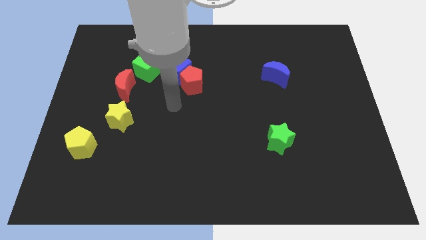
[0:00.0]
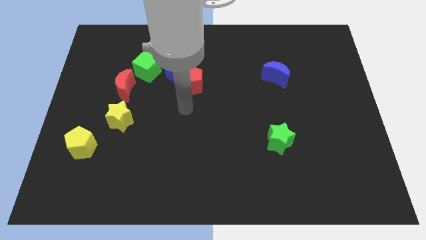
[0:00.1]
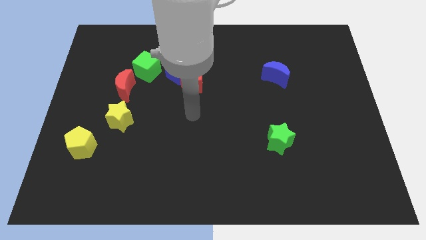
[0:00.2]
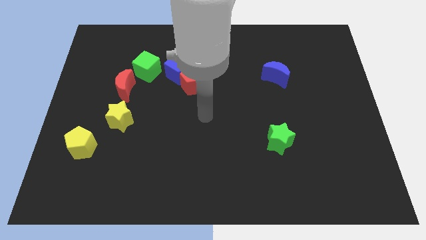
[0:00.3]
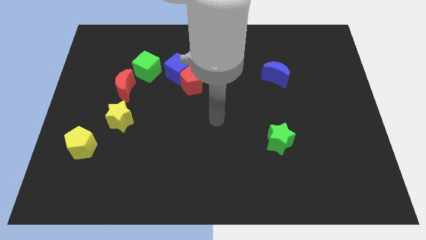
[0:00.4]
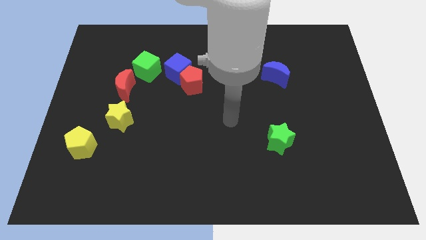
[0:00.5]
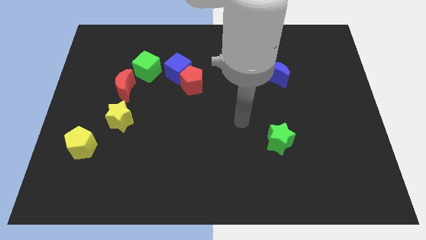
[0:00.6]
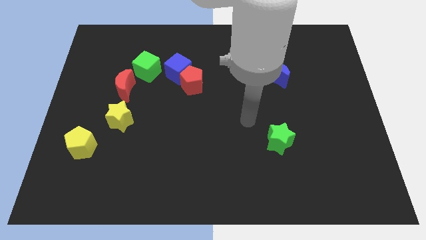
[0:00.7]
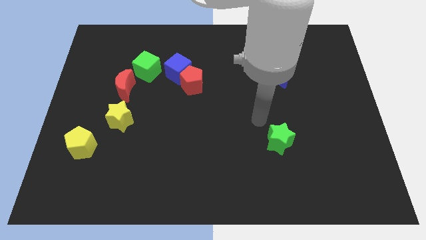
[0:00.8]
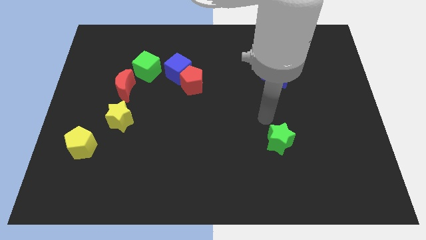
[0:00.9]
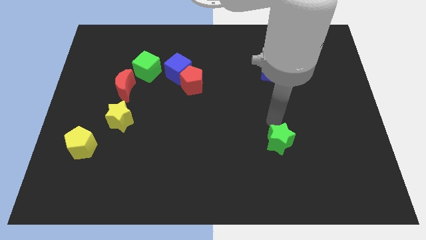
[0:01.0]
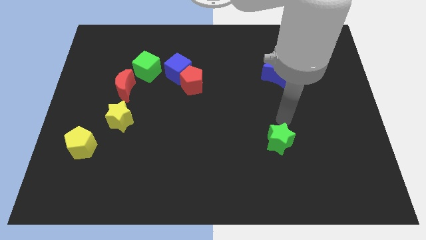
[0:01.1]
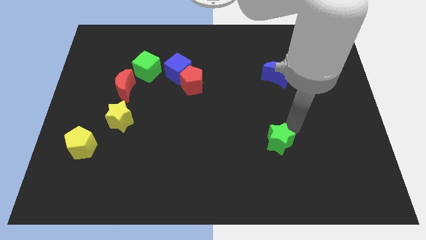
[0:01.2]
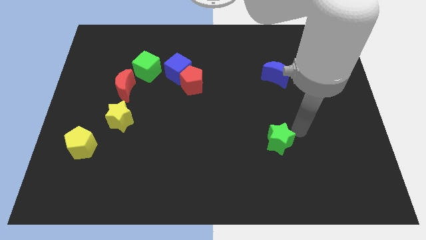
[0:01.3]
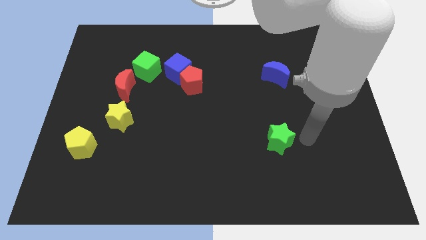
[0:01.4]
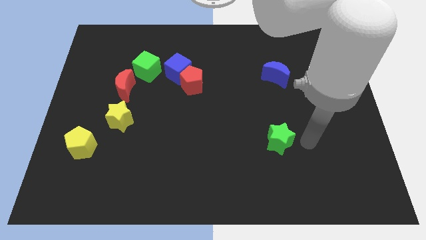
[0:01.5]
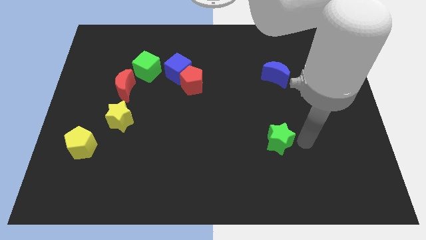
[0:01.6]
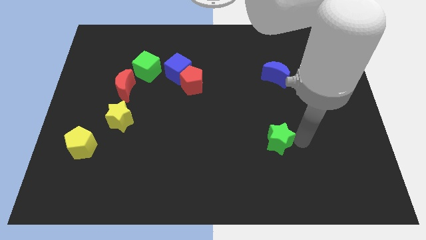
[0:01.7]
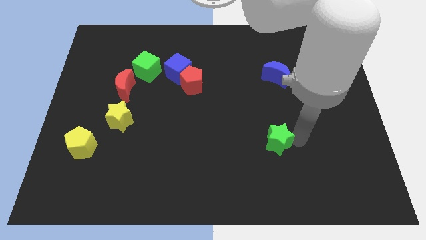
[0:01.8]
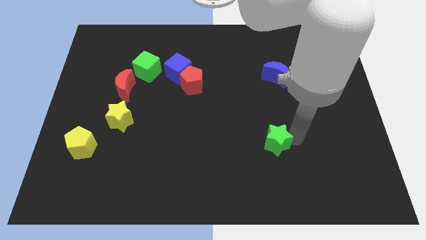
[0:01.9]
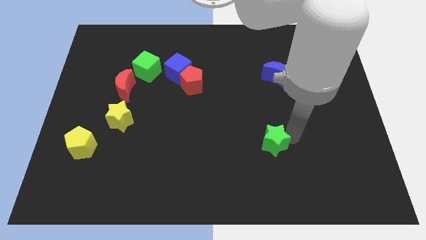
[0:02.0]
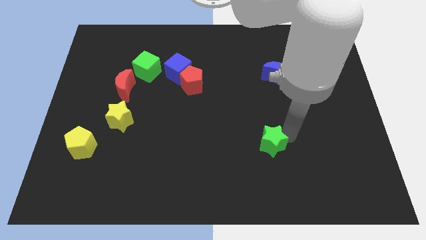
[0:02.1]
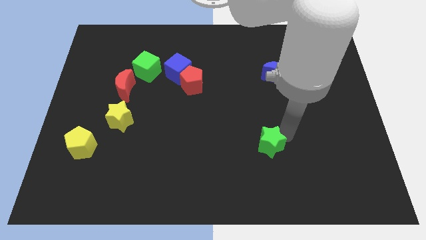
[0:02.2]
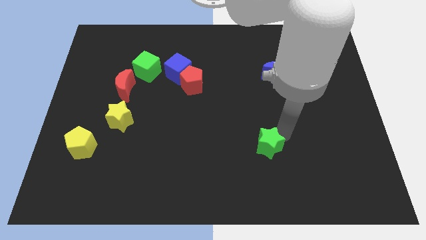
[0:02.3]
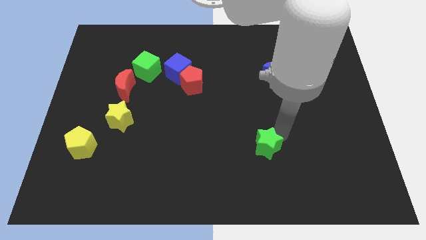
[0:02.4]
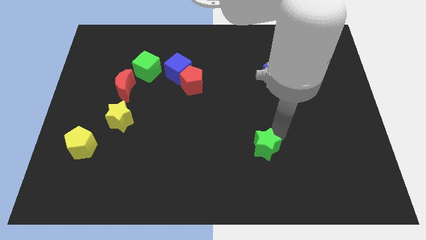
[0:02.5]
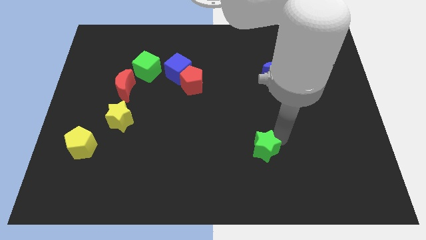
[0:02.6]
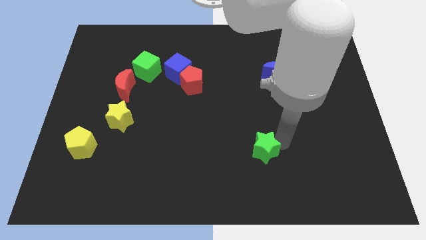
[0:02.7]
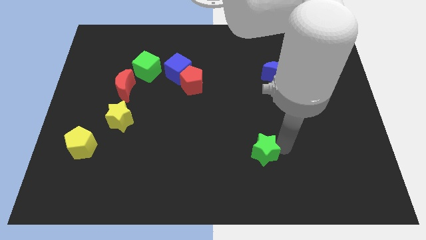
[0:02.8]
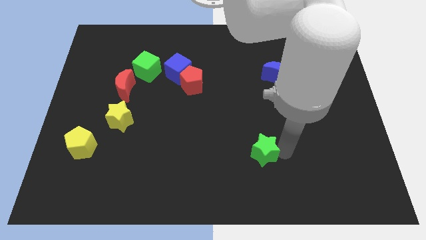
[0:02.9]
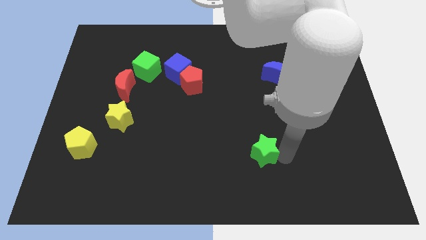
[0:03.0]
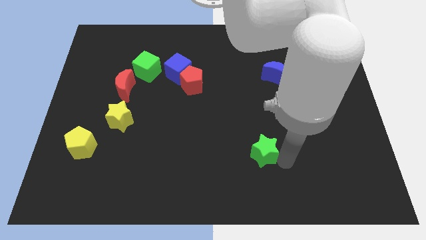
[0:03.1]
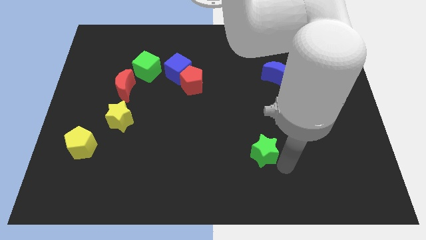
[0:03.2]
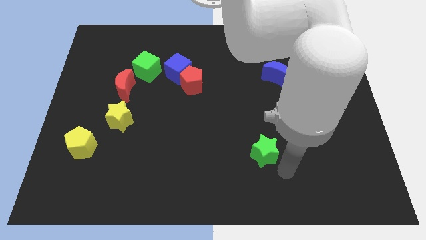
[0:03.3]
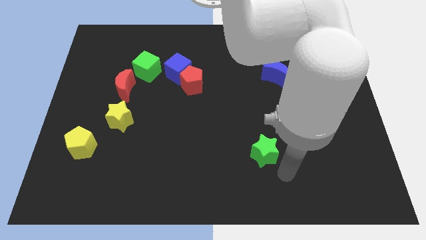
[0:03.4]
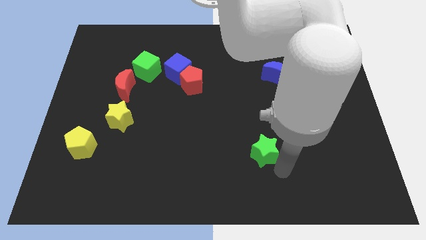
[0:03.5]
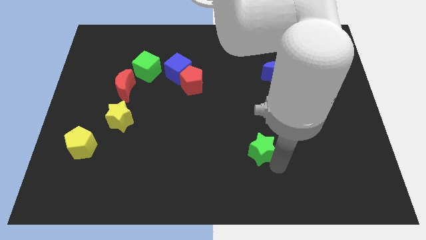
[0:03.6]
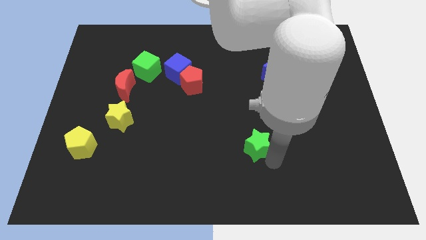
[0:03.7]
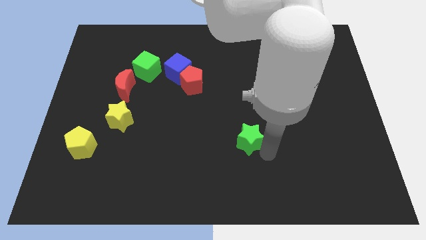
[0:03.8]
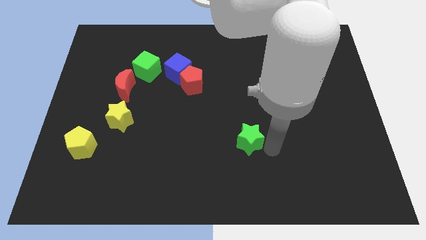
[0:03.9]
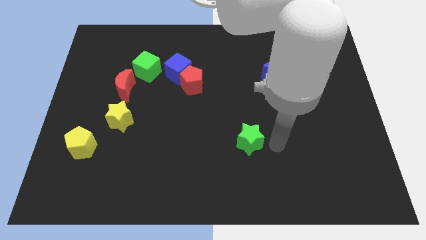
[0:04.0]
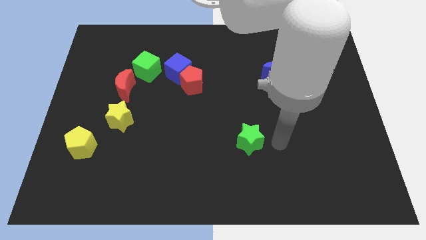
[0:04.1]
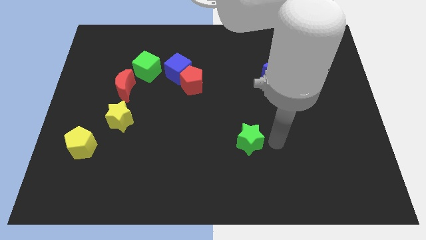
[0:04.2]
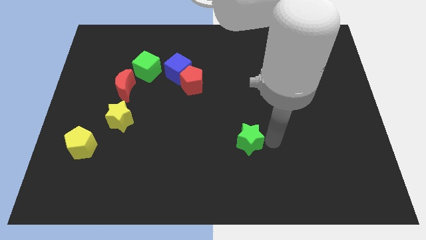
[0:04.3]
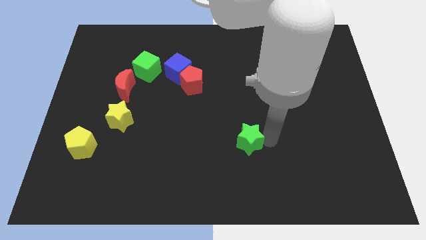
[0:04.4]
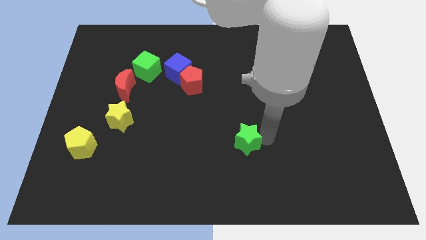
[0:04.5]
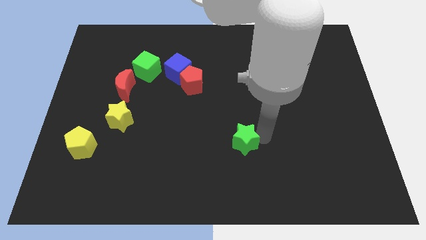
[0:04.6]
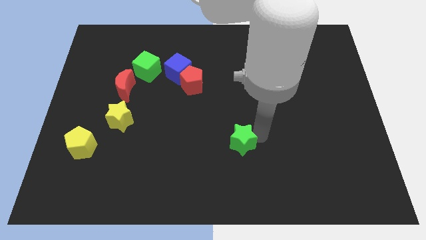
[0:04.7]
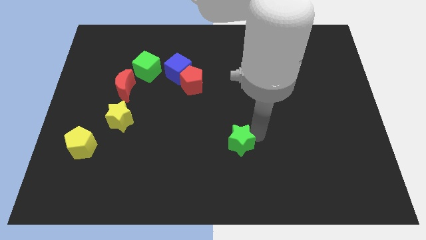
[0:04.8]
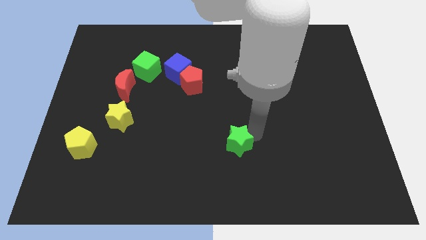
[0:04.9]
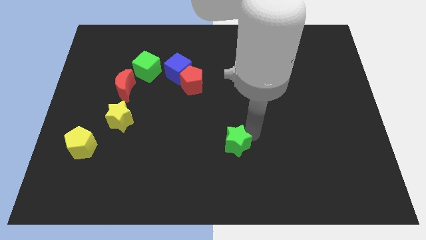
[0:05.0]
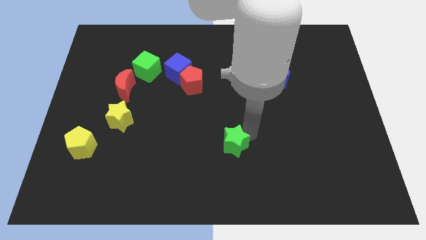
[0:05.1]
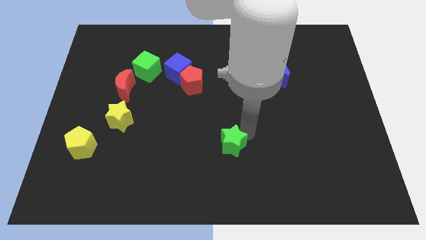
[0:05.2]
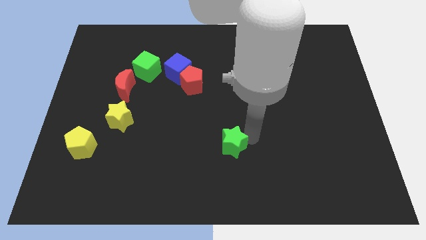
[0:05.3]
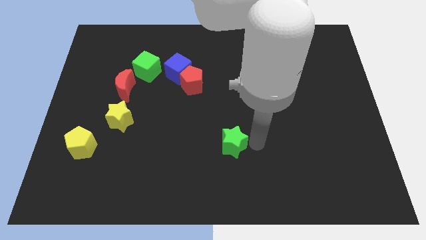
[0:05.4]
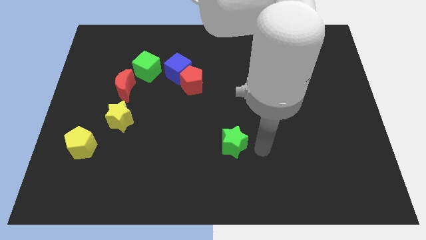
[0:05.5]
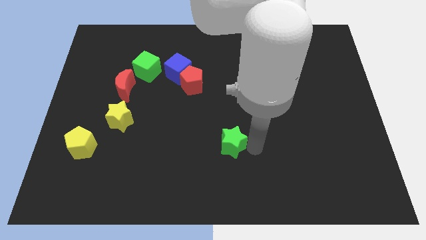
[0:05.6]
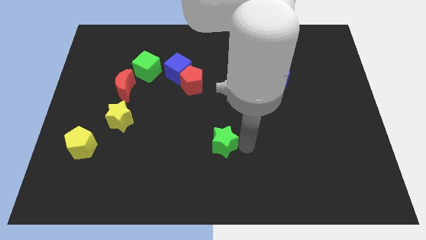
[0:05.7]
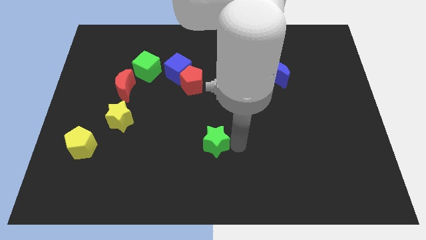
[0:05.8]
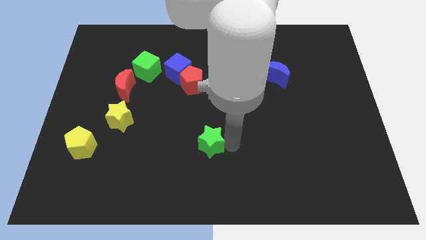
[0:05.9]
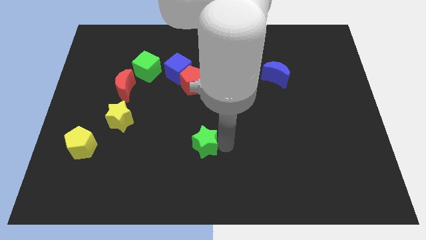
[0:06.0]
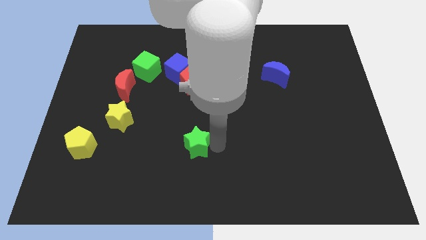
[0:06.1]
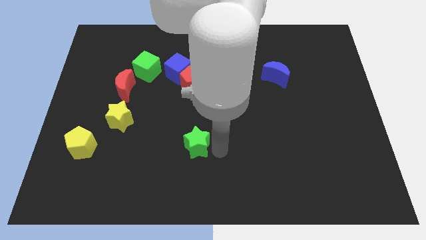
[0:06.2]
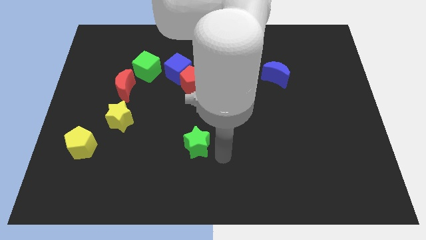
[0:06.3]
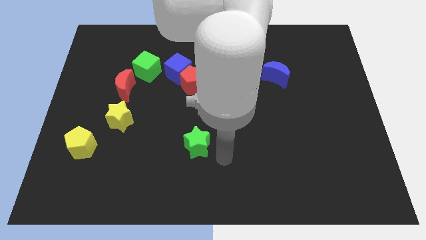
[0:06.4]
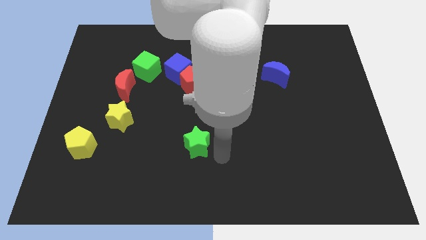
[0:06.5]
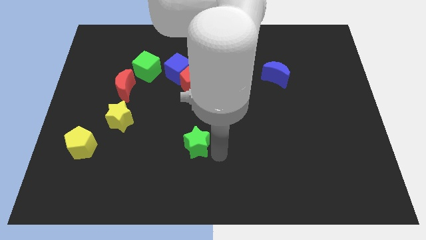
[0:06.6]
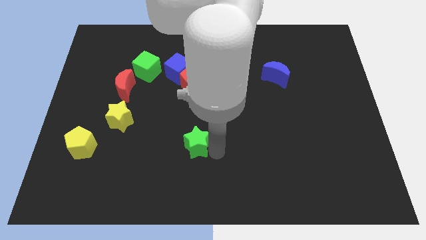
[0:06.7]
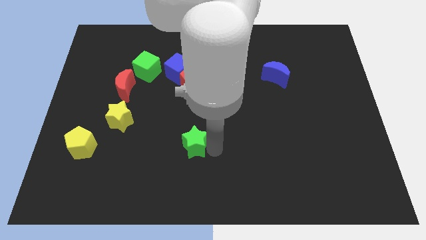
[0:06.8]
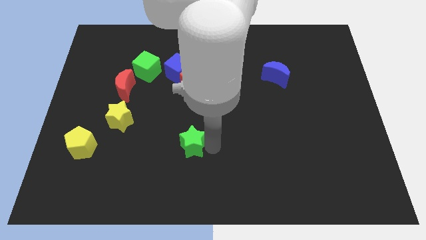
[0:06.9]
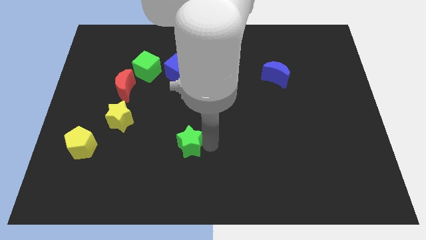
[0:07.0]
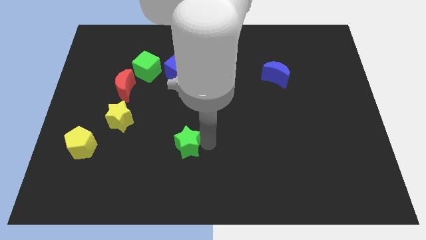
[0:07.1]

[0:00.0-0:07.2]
push the green star to the left

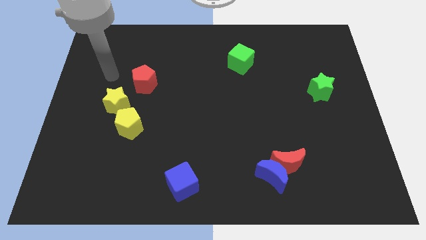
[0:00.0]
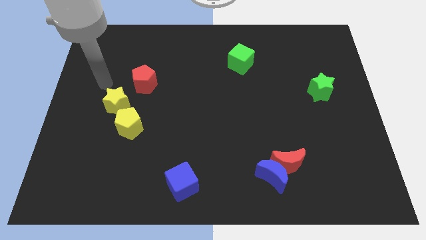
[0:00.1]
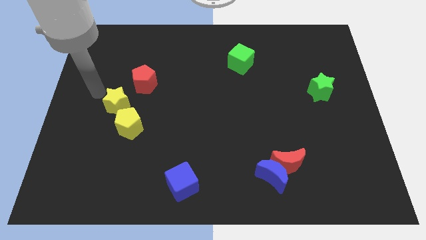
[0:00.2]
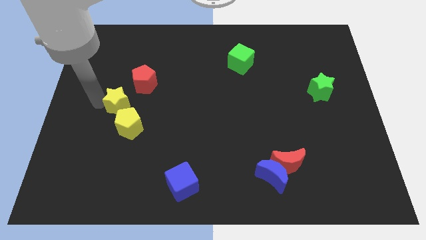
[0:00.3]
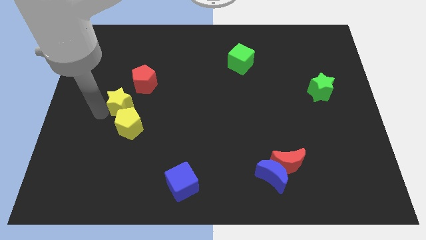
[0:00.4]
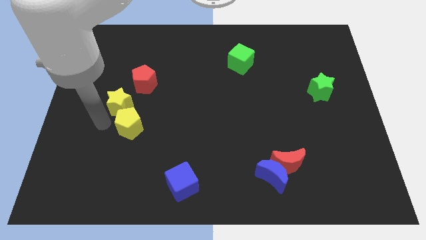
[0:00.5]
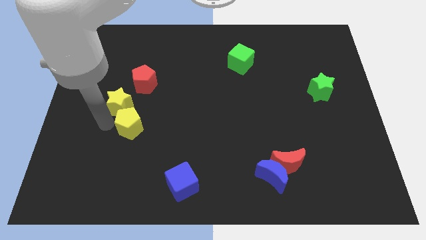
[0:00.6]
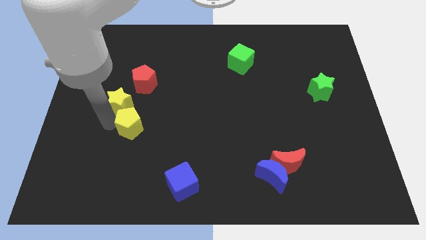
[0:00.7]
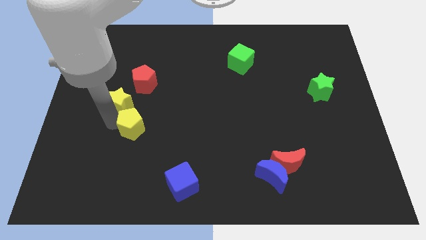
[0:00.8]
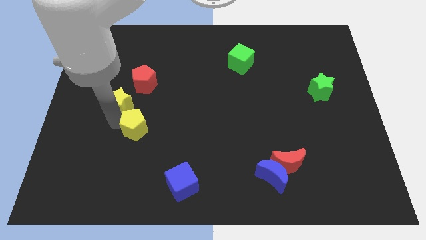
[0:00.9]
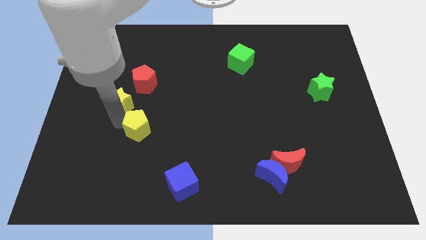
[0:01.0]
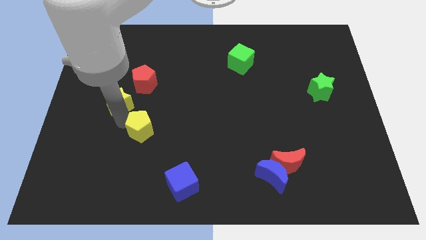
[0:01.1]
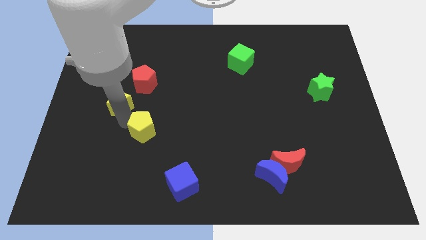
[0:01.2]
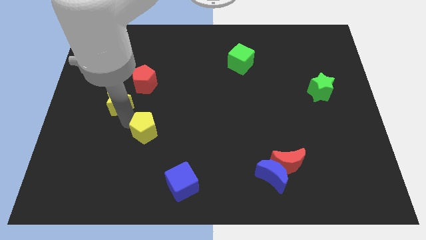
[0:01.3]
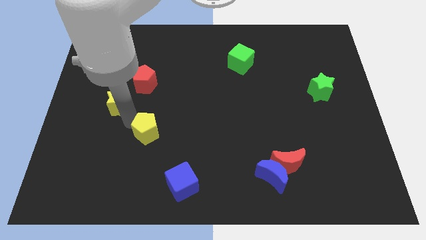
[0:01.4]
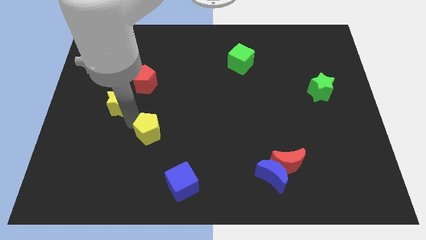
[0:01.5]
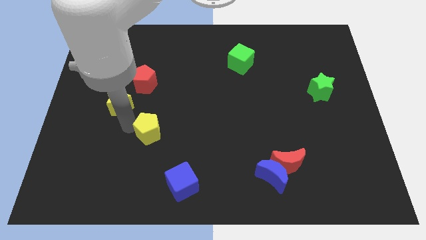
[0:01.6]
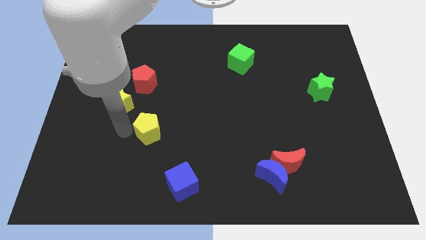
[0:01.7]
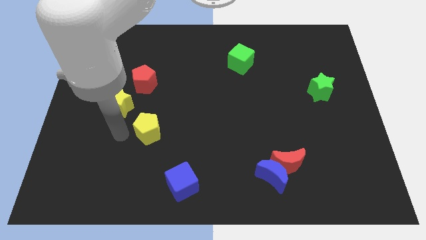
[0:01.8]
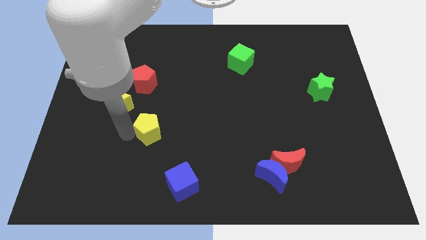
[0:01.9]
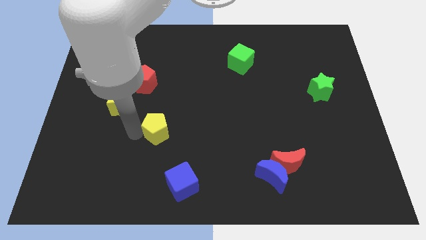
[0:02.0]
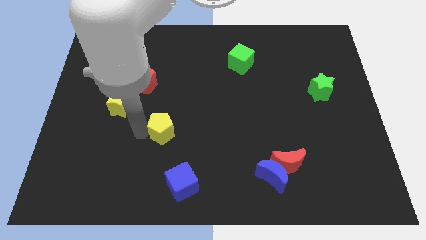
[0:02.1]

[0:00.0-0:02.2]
push the yellow pentagon a little to the right
